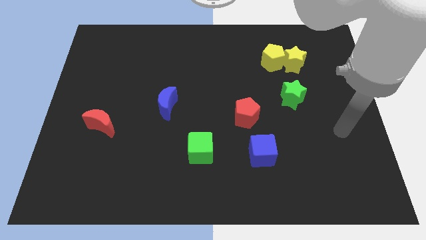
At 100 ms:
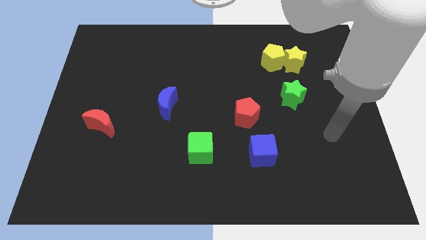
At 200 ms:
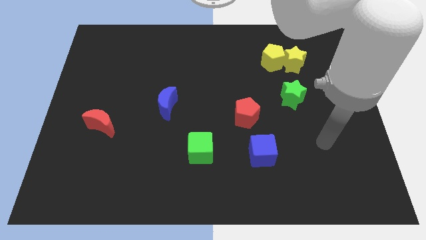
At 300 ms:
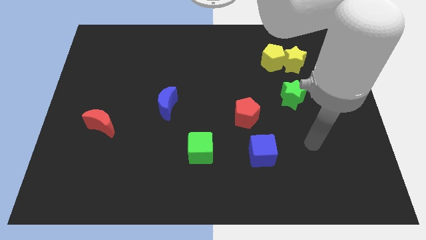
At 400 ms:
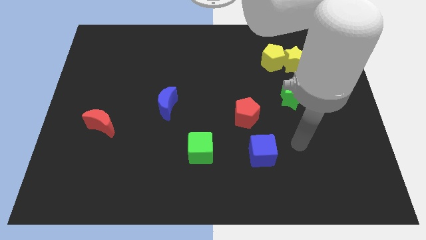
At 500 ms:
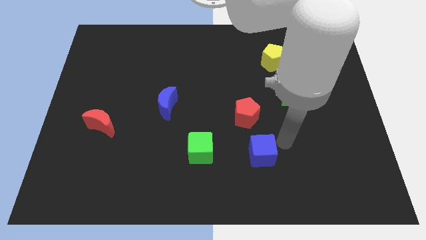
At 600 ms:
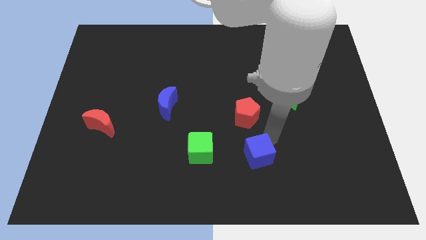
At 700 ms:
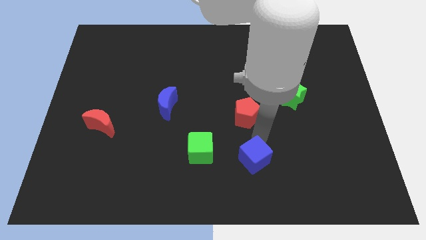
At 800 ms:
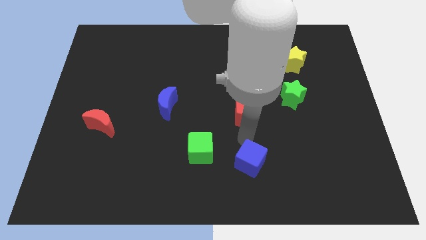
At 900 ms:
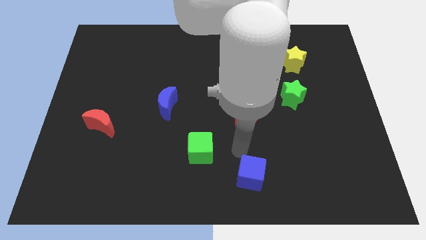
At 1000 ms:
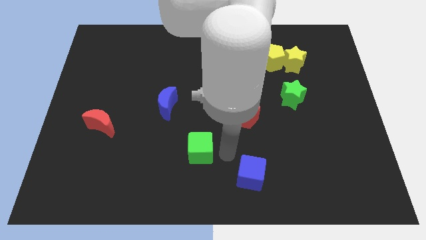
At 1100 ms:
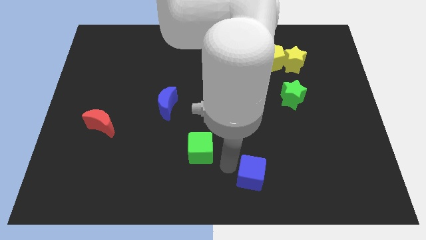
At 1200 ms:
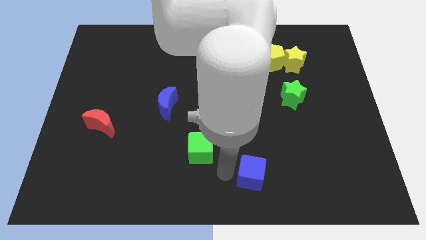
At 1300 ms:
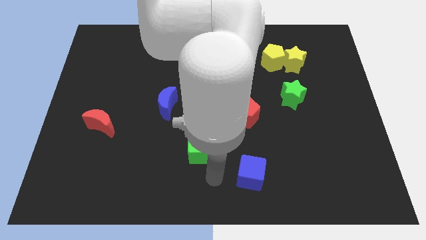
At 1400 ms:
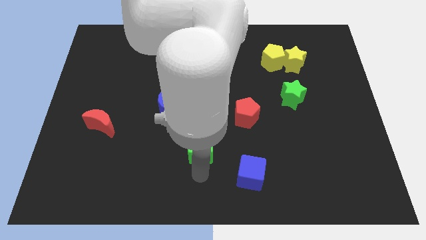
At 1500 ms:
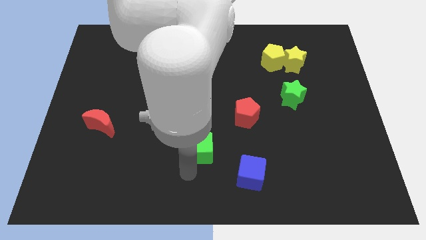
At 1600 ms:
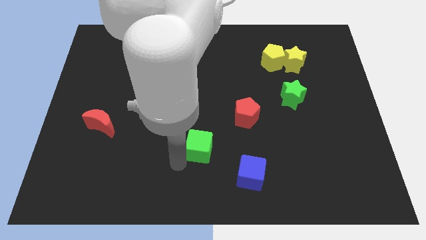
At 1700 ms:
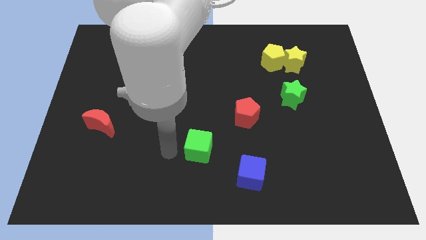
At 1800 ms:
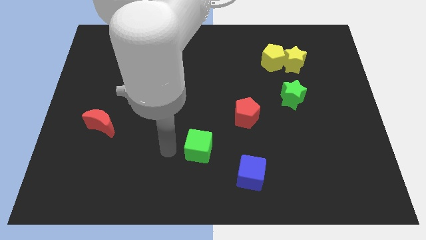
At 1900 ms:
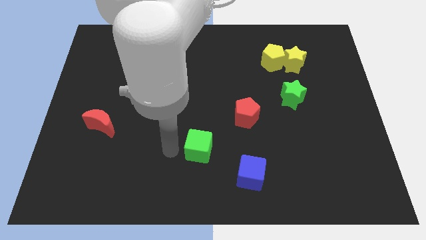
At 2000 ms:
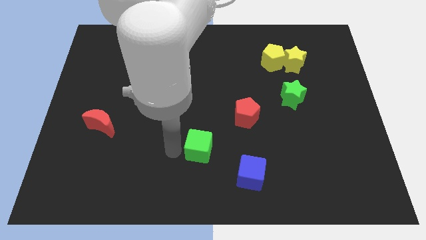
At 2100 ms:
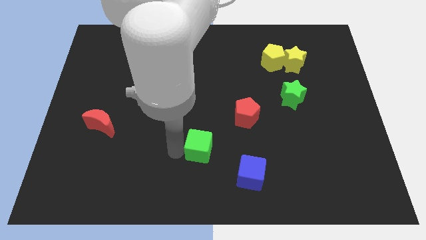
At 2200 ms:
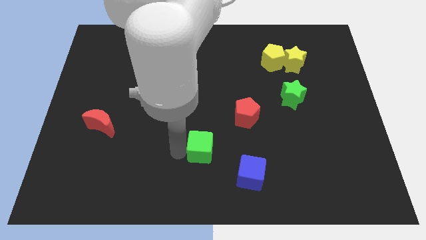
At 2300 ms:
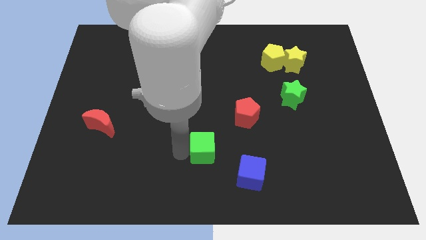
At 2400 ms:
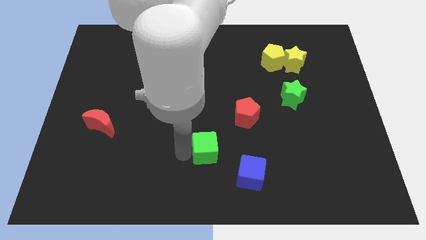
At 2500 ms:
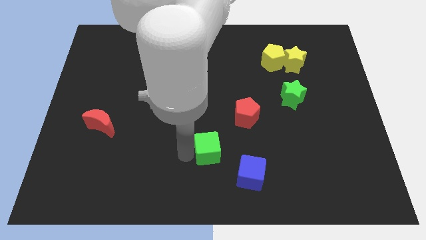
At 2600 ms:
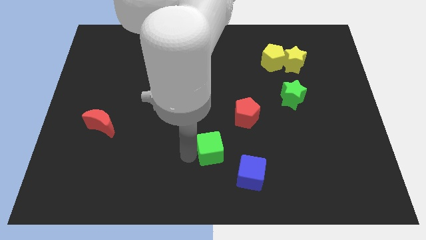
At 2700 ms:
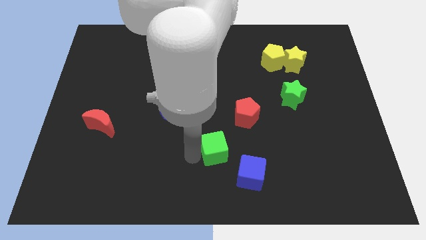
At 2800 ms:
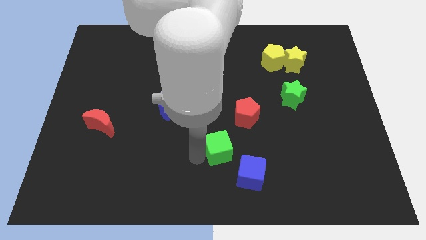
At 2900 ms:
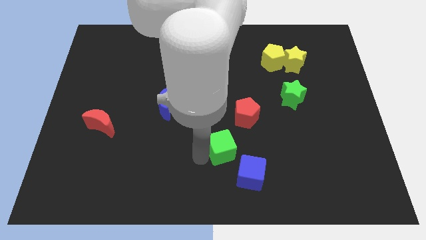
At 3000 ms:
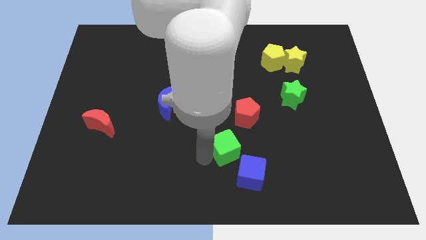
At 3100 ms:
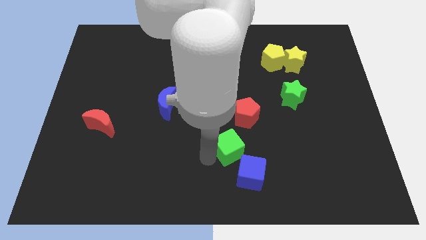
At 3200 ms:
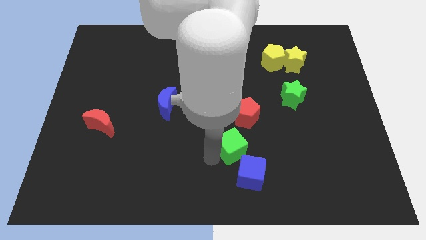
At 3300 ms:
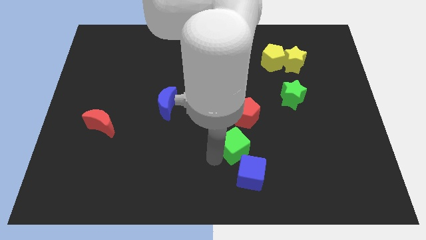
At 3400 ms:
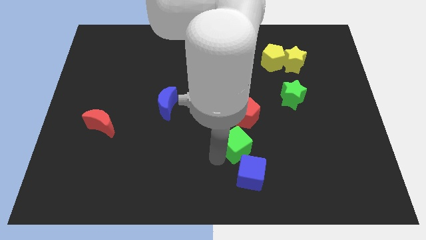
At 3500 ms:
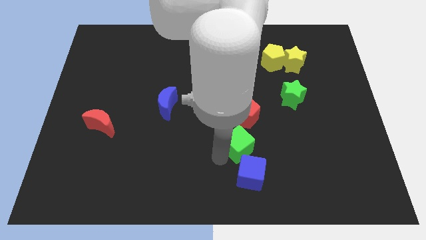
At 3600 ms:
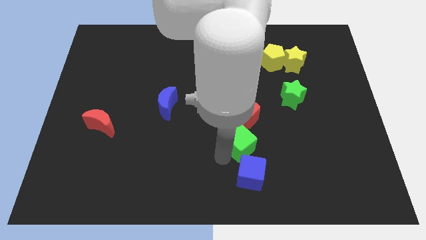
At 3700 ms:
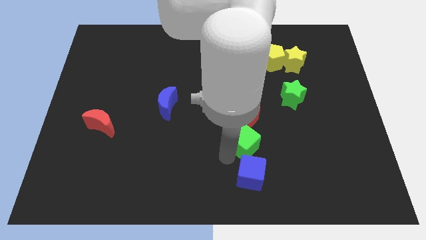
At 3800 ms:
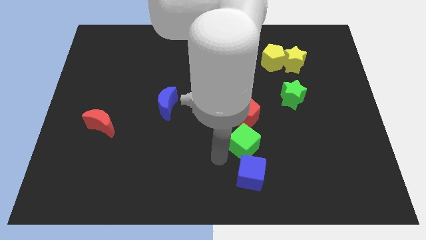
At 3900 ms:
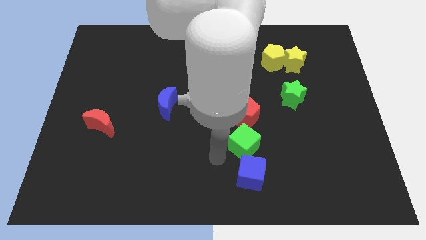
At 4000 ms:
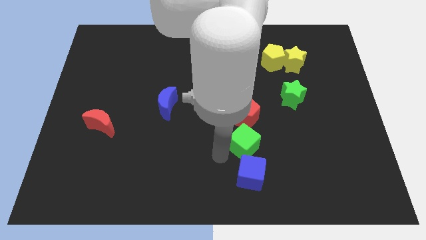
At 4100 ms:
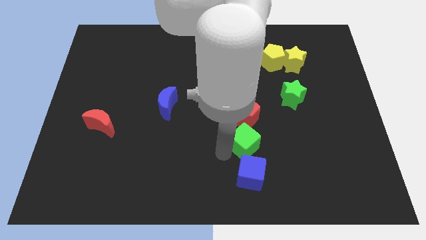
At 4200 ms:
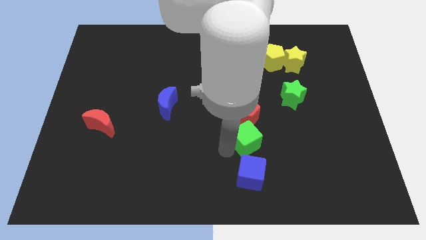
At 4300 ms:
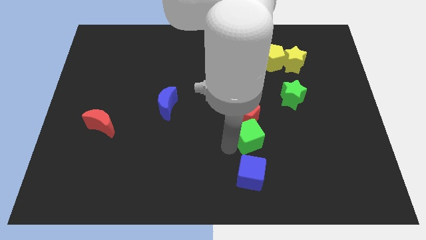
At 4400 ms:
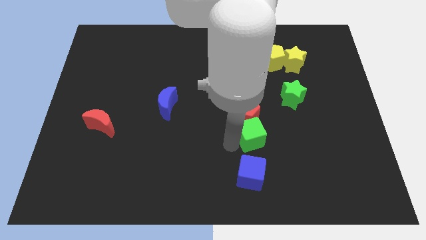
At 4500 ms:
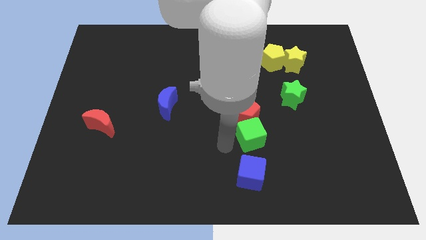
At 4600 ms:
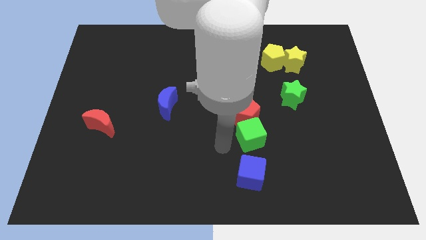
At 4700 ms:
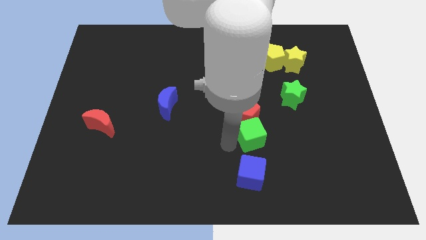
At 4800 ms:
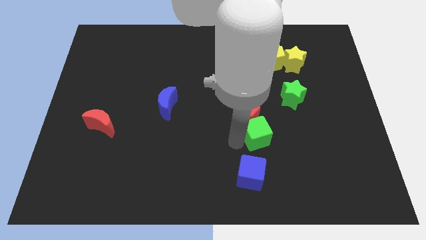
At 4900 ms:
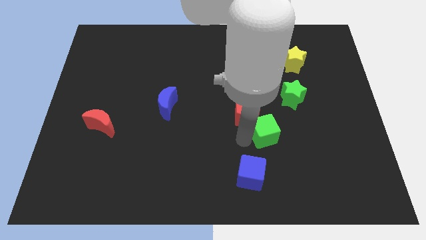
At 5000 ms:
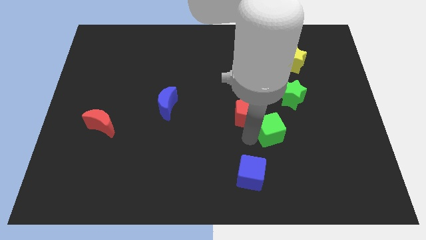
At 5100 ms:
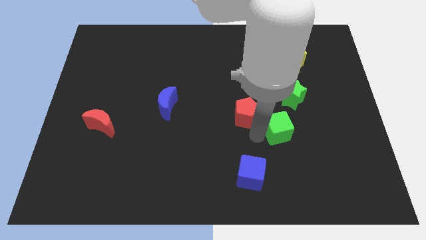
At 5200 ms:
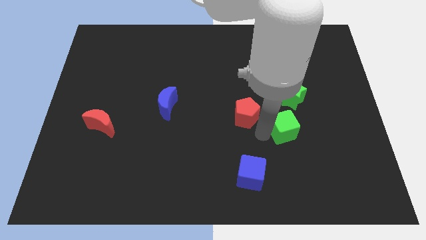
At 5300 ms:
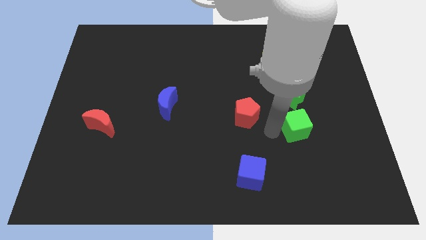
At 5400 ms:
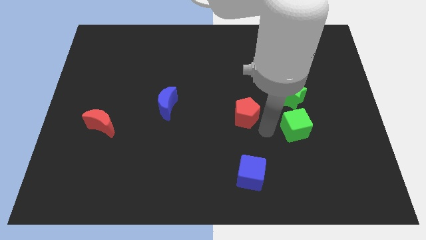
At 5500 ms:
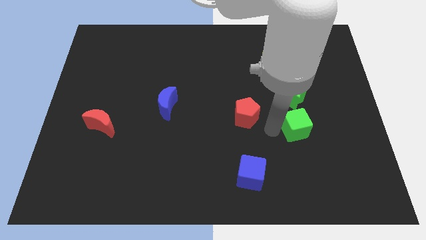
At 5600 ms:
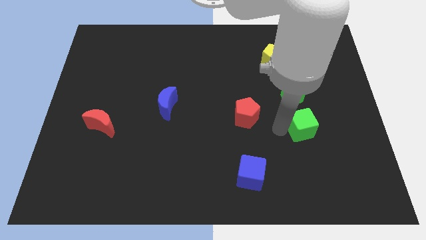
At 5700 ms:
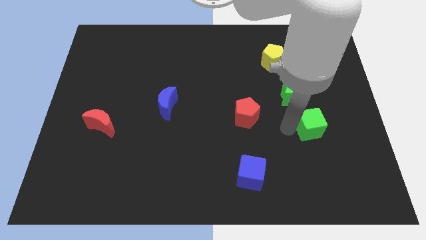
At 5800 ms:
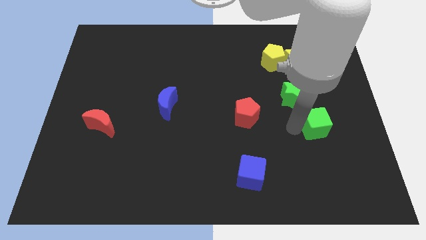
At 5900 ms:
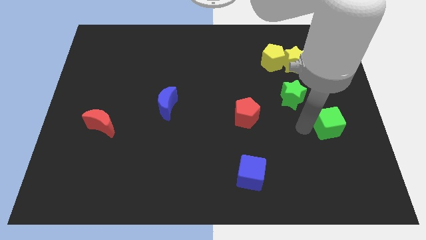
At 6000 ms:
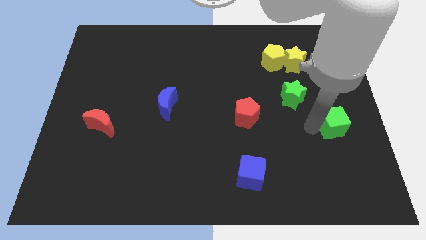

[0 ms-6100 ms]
put the green cube to the right side
